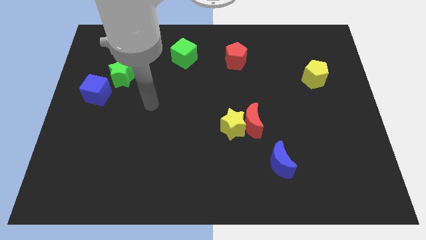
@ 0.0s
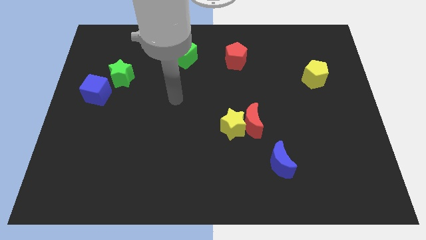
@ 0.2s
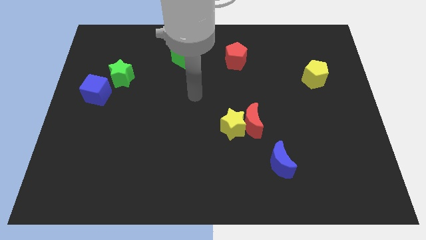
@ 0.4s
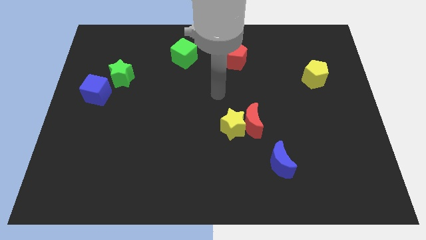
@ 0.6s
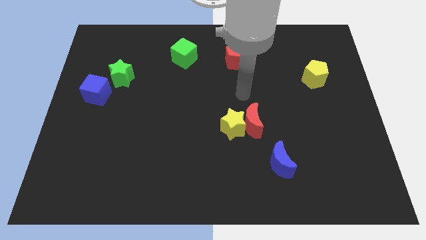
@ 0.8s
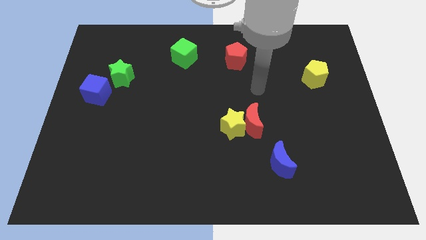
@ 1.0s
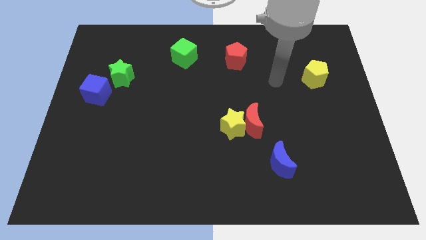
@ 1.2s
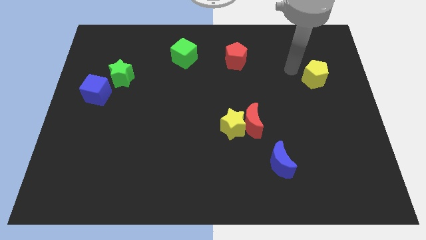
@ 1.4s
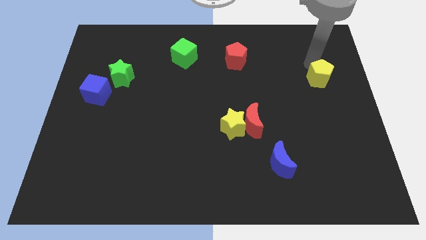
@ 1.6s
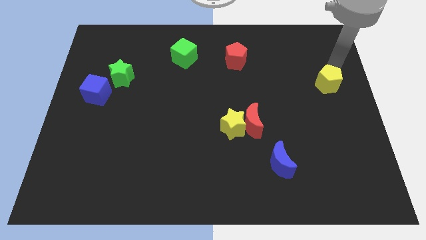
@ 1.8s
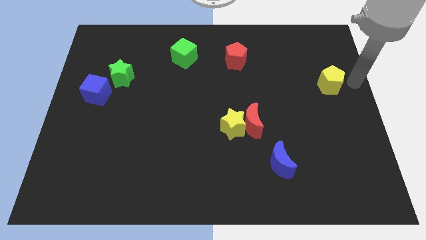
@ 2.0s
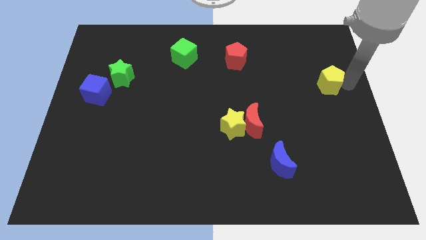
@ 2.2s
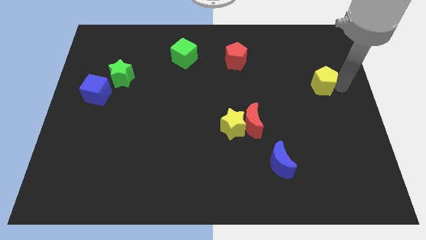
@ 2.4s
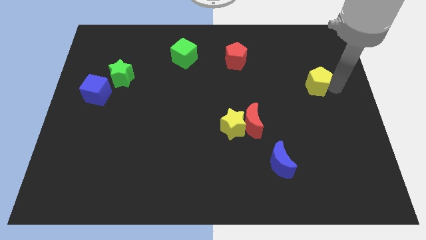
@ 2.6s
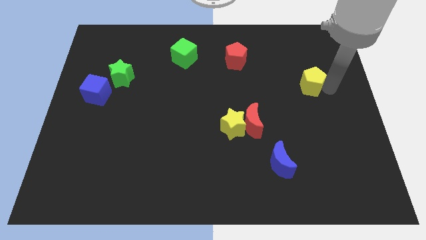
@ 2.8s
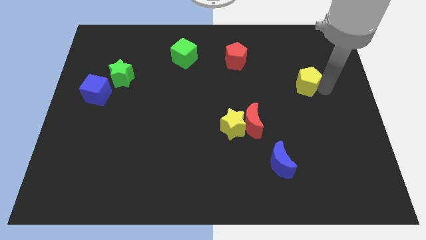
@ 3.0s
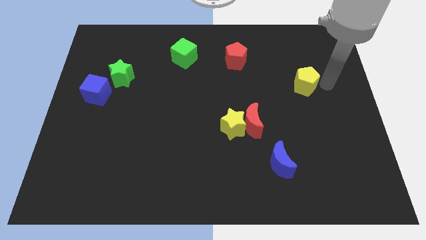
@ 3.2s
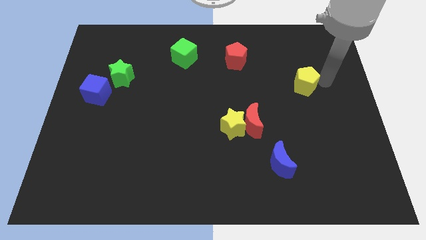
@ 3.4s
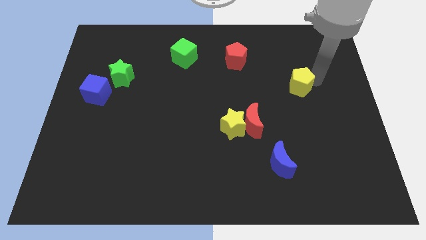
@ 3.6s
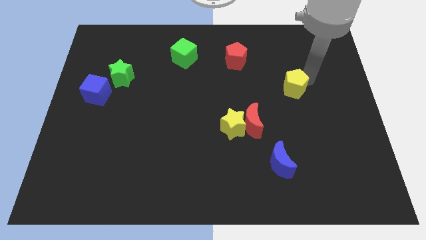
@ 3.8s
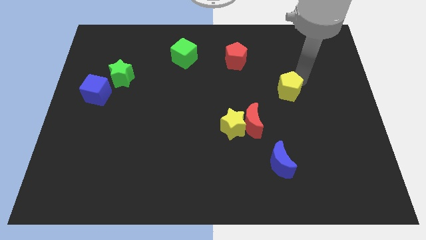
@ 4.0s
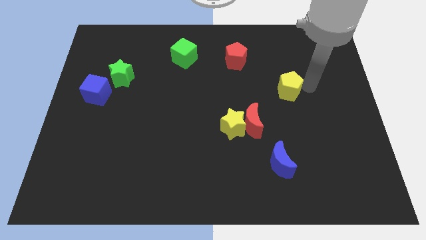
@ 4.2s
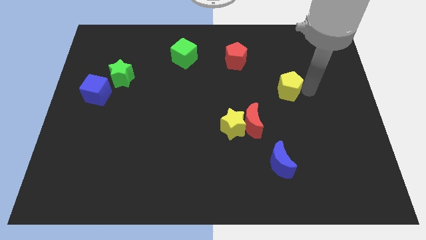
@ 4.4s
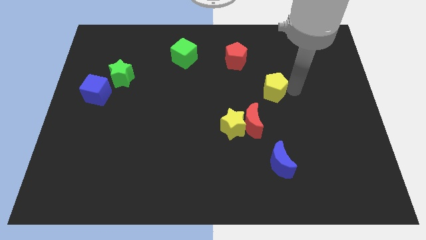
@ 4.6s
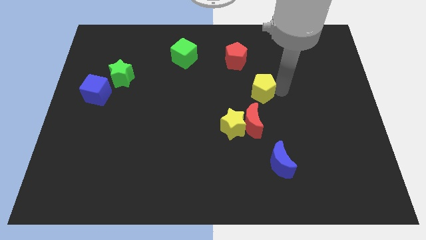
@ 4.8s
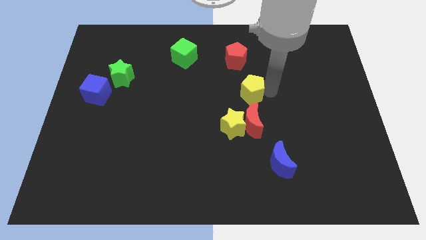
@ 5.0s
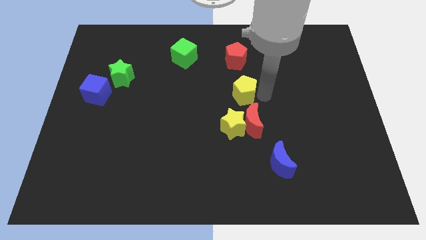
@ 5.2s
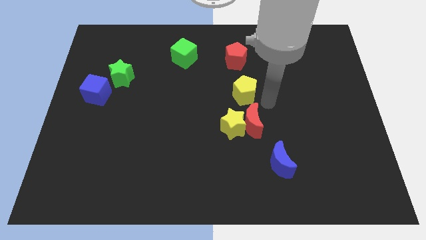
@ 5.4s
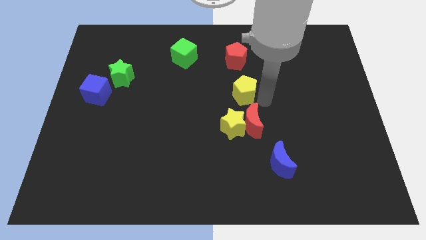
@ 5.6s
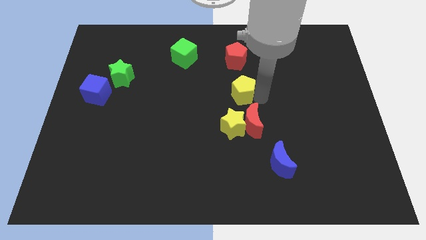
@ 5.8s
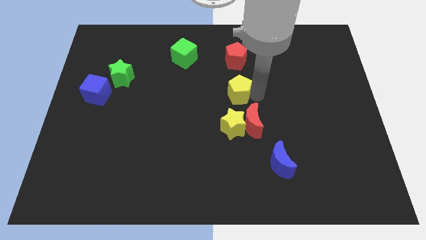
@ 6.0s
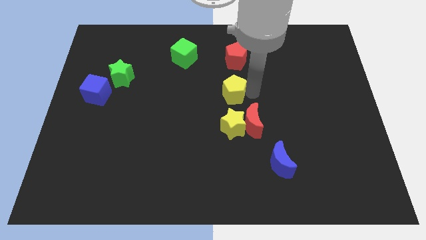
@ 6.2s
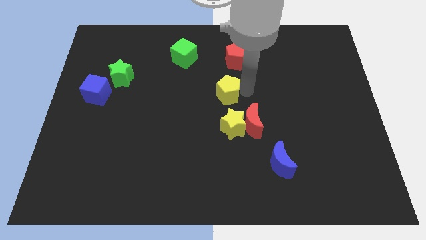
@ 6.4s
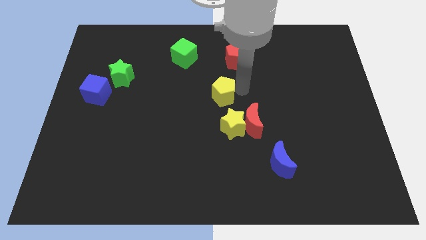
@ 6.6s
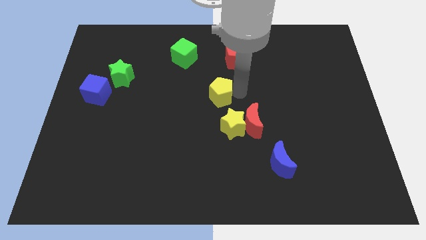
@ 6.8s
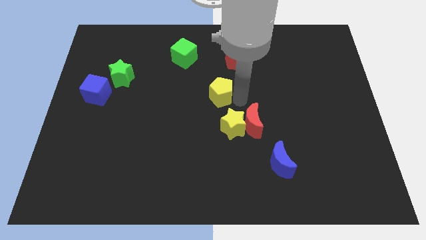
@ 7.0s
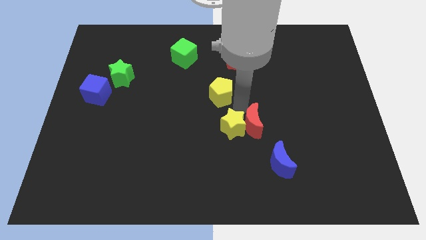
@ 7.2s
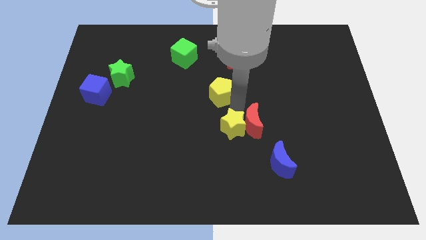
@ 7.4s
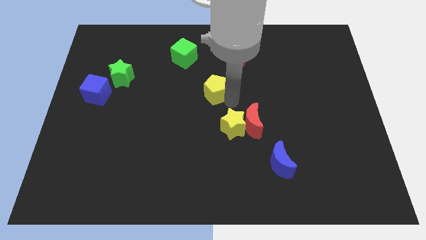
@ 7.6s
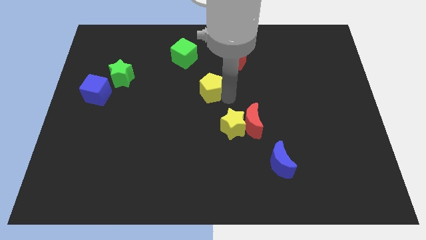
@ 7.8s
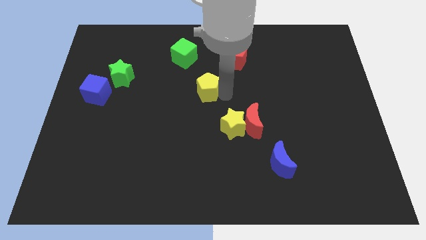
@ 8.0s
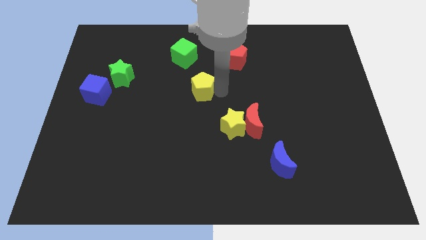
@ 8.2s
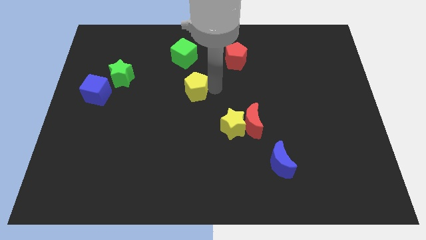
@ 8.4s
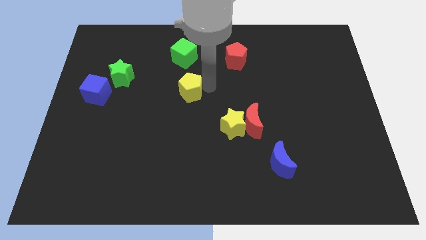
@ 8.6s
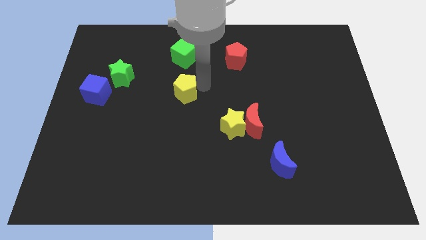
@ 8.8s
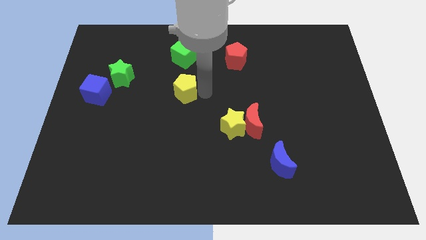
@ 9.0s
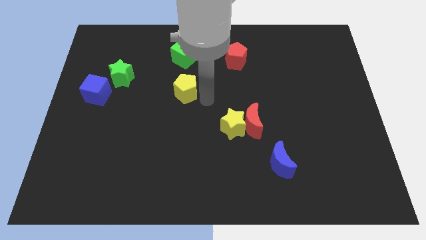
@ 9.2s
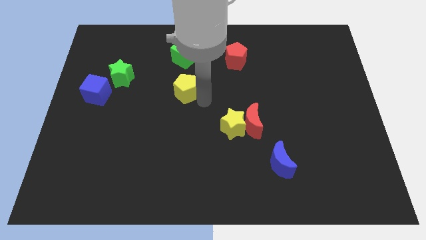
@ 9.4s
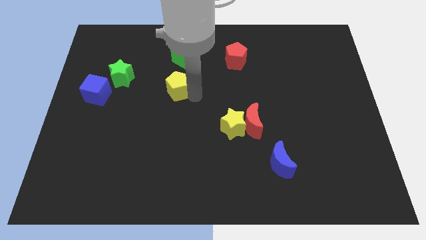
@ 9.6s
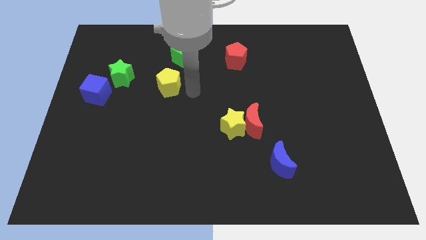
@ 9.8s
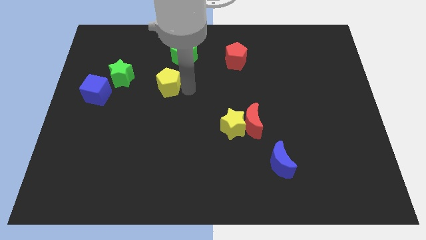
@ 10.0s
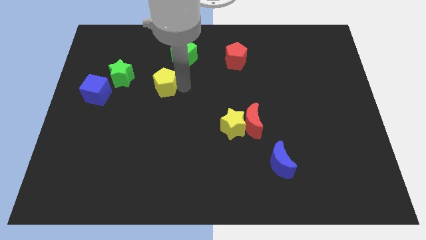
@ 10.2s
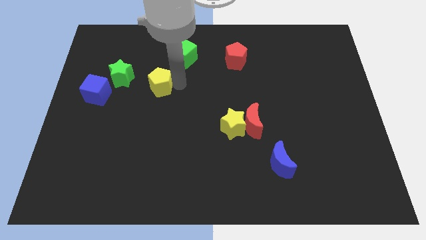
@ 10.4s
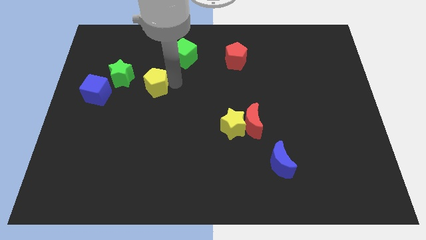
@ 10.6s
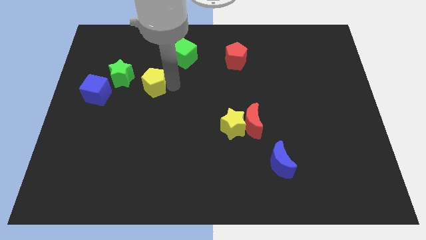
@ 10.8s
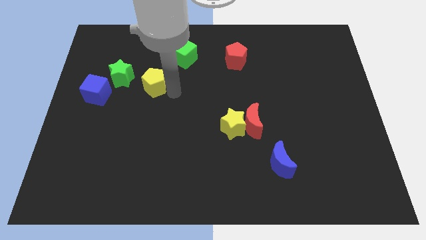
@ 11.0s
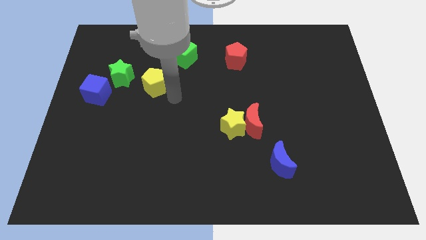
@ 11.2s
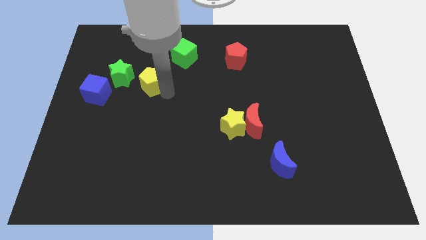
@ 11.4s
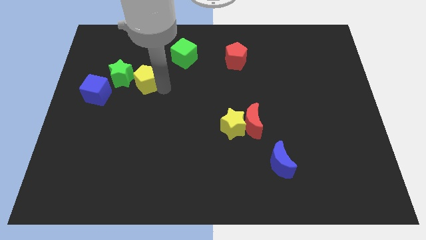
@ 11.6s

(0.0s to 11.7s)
slide the yellow pentagon close to the green star

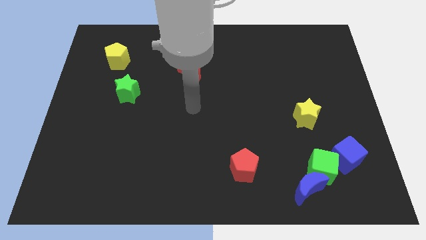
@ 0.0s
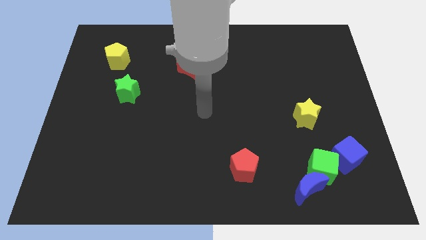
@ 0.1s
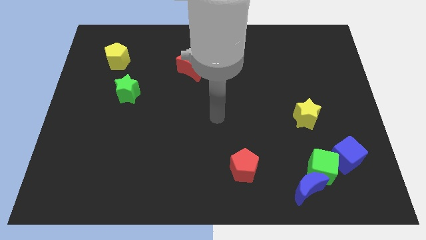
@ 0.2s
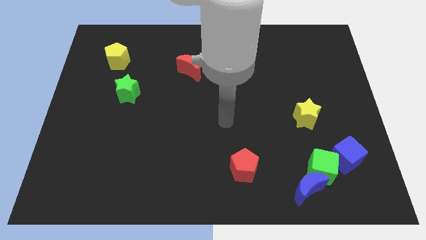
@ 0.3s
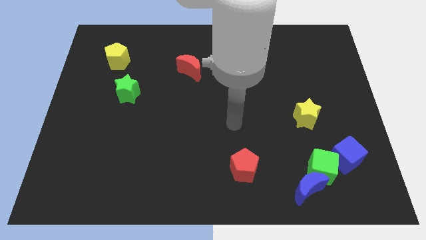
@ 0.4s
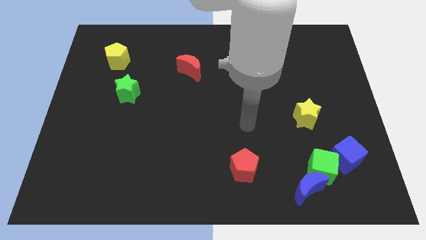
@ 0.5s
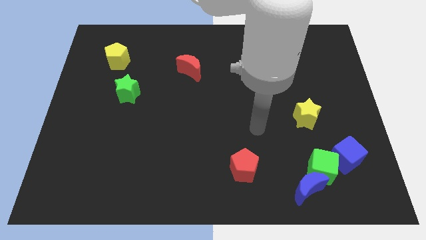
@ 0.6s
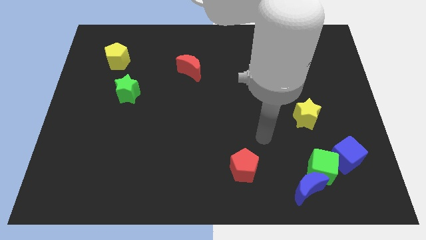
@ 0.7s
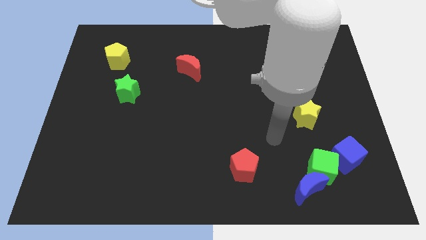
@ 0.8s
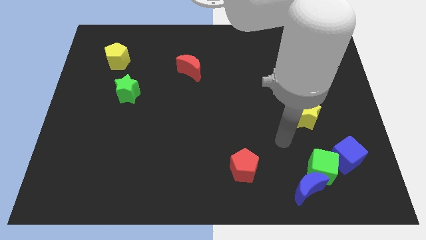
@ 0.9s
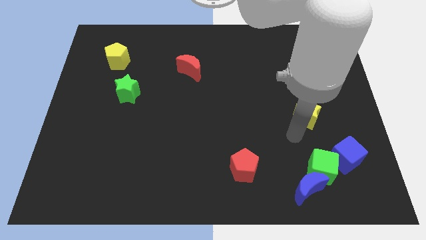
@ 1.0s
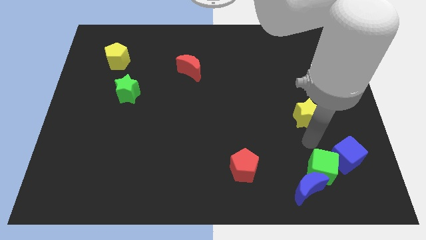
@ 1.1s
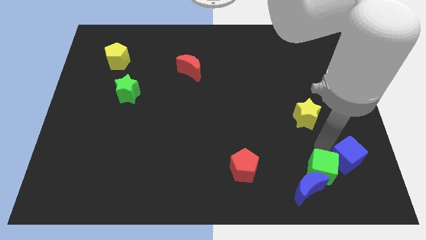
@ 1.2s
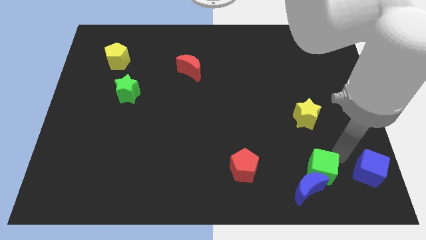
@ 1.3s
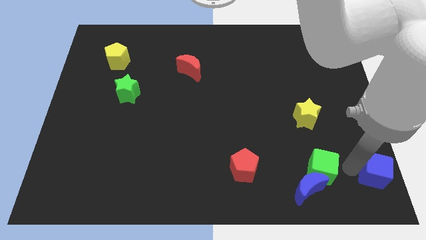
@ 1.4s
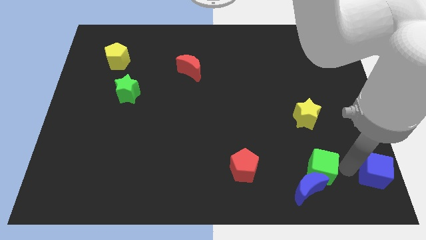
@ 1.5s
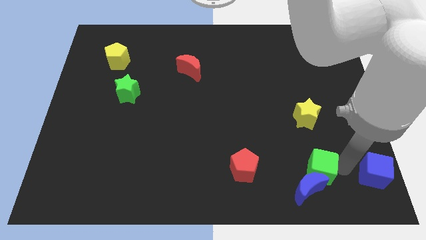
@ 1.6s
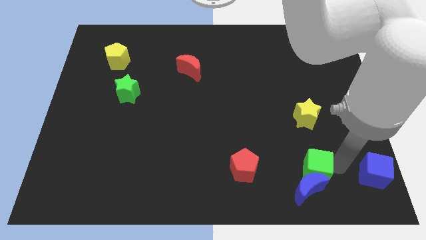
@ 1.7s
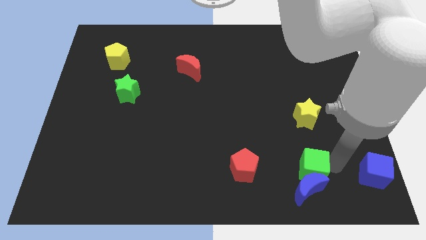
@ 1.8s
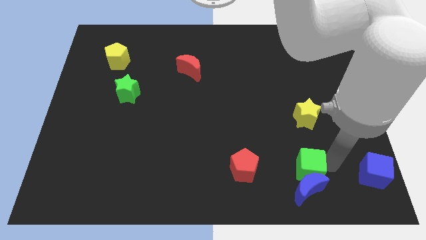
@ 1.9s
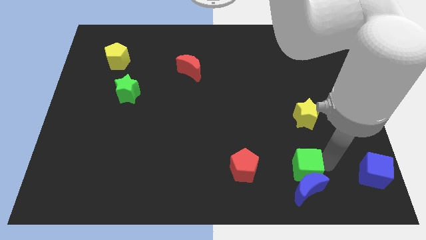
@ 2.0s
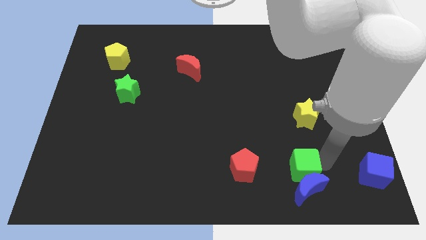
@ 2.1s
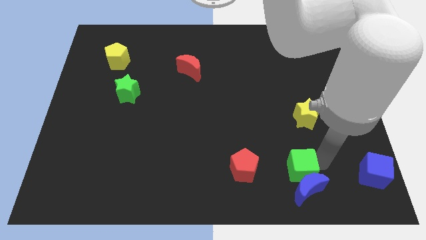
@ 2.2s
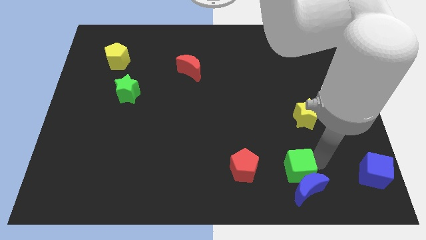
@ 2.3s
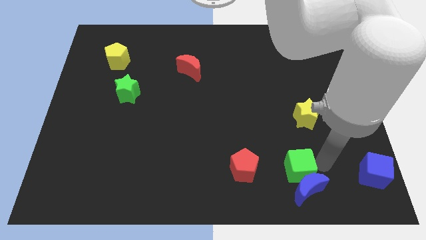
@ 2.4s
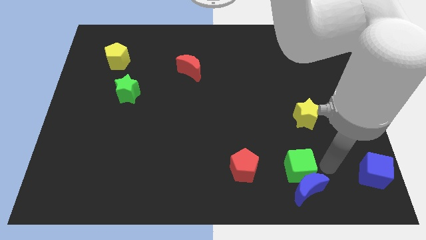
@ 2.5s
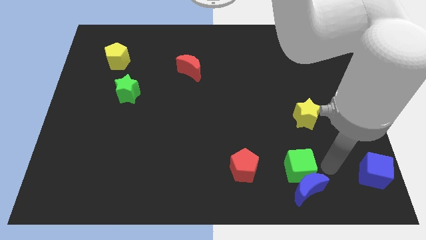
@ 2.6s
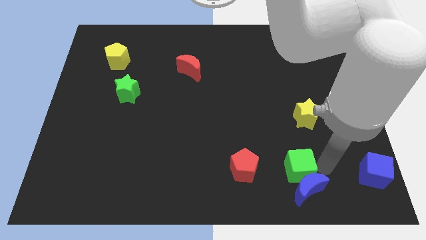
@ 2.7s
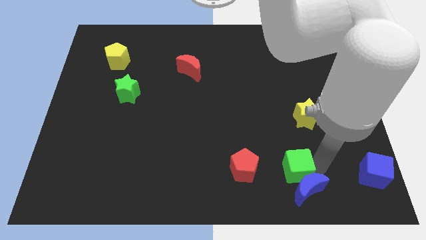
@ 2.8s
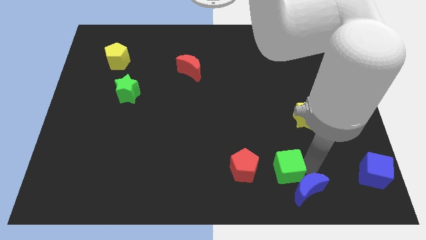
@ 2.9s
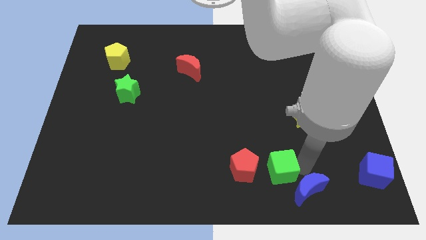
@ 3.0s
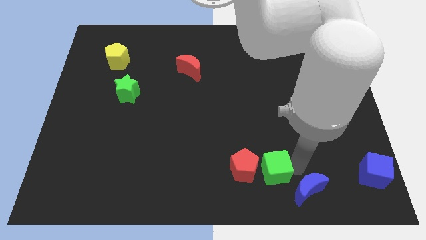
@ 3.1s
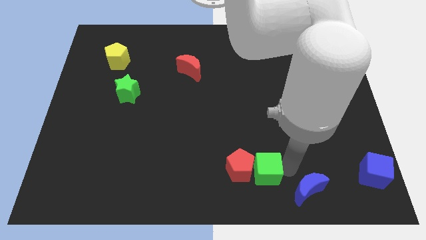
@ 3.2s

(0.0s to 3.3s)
slide the green cube towards the red pentagon
